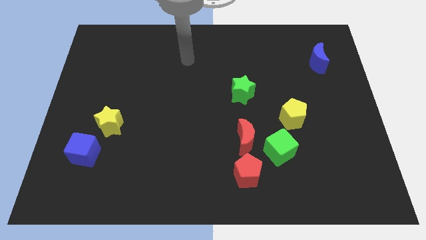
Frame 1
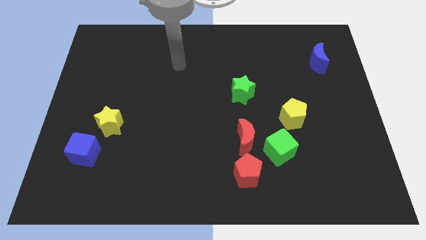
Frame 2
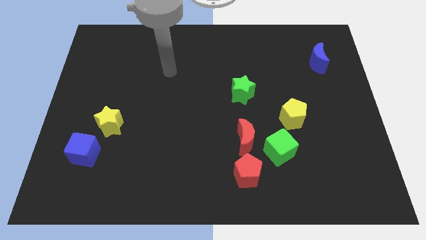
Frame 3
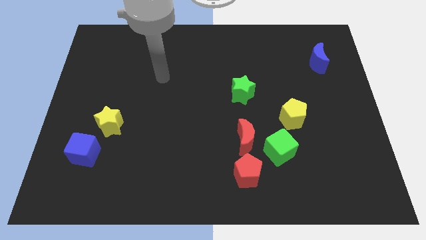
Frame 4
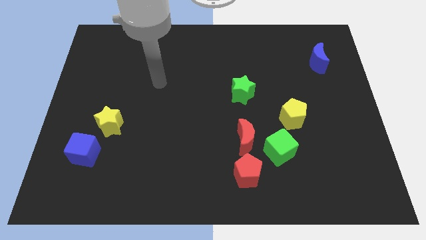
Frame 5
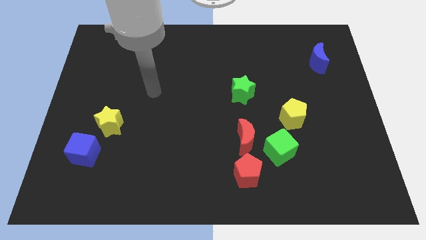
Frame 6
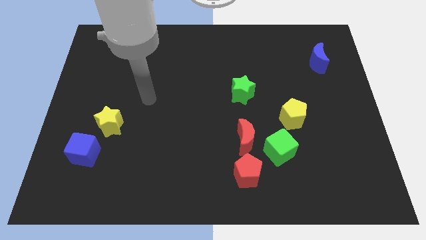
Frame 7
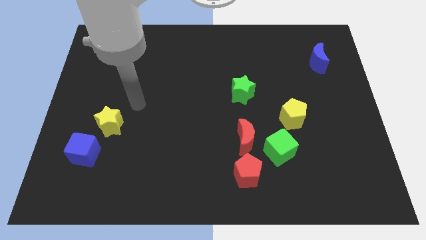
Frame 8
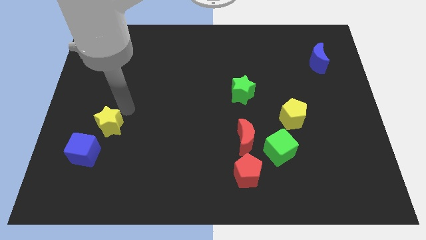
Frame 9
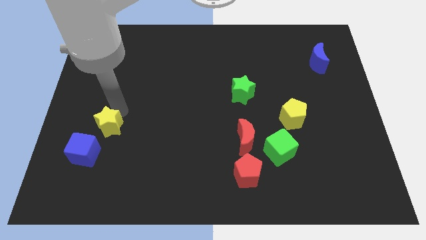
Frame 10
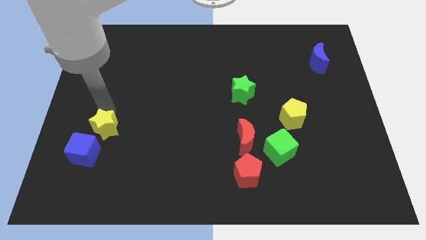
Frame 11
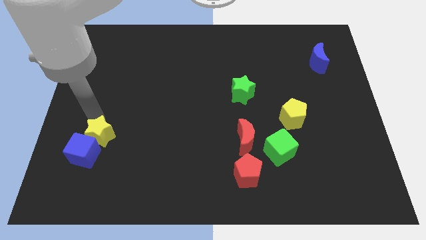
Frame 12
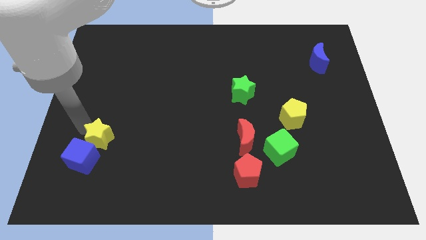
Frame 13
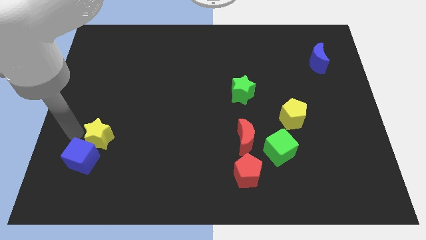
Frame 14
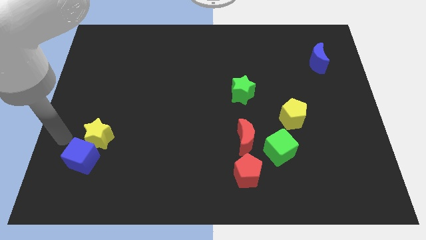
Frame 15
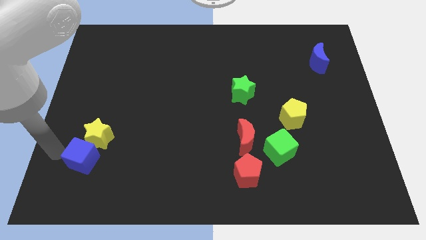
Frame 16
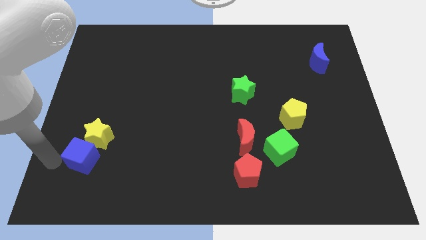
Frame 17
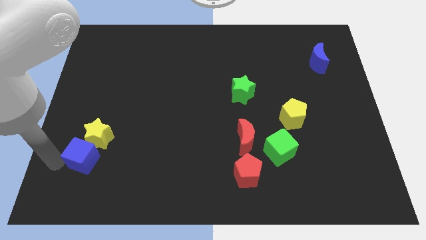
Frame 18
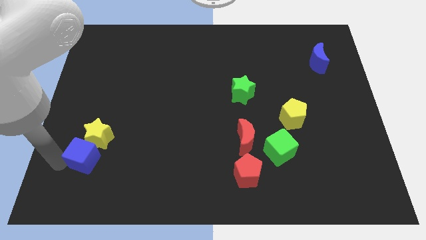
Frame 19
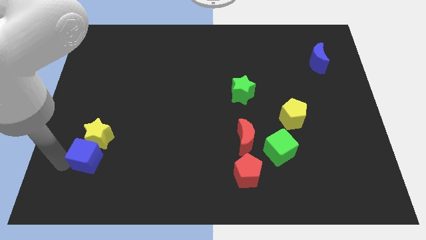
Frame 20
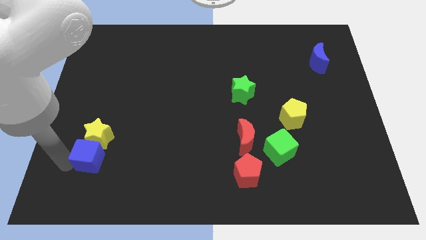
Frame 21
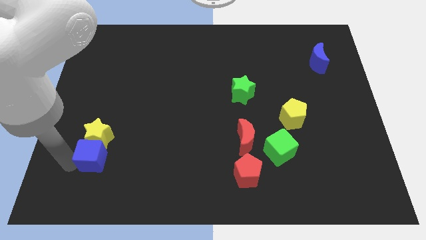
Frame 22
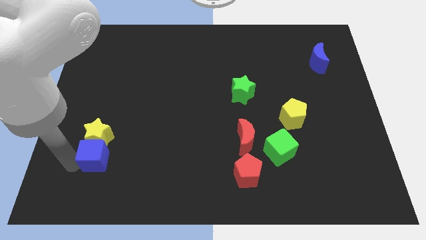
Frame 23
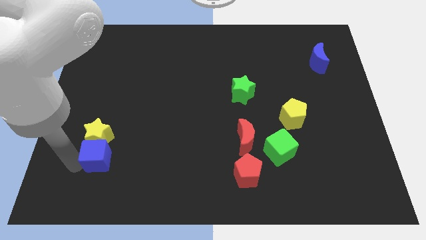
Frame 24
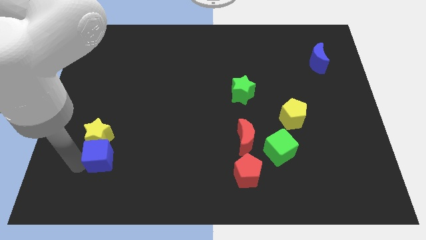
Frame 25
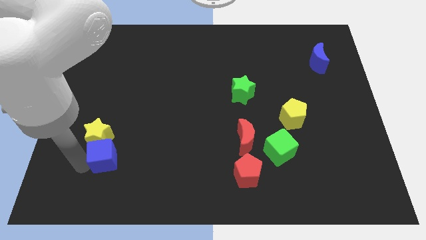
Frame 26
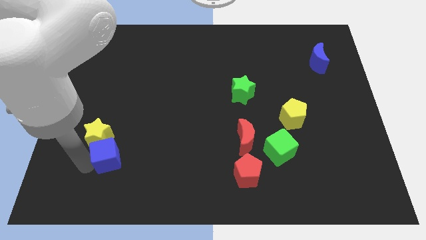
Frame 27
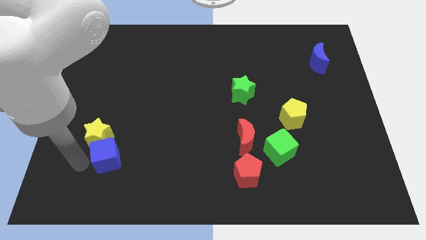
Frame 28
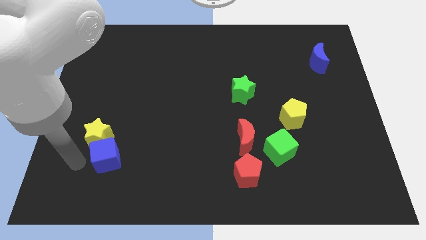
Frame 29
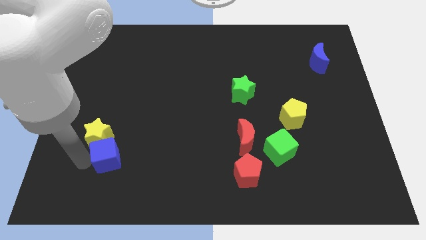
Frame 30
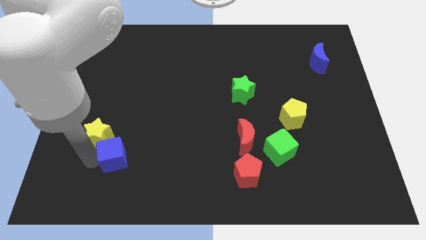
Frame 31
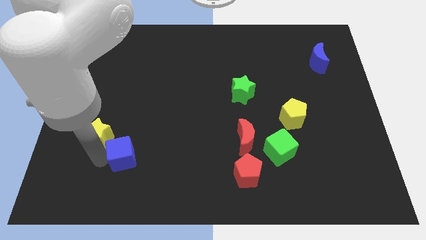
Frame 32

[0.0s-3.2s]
slightly push the blue cube right

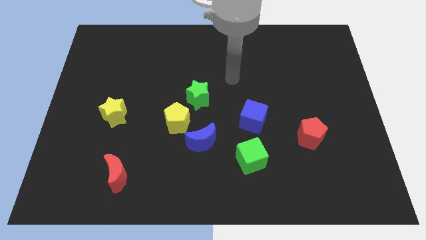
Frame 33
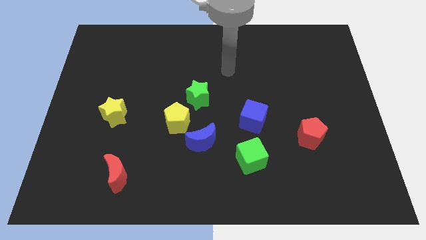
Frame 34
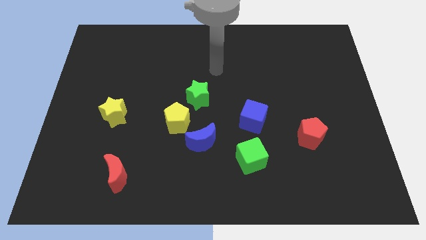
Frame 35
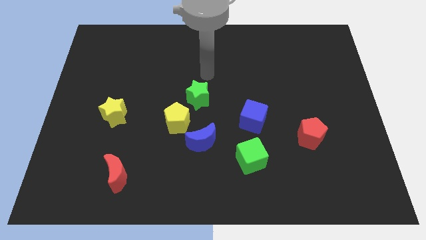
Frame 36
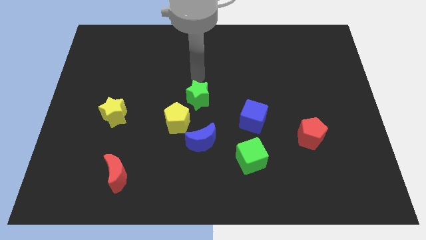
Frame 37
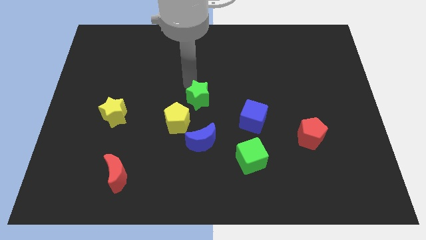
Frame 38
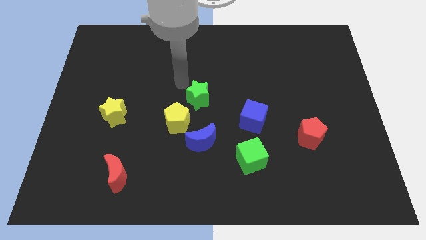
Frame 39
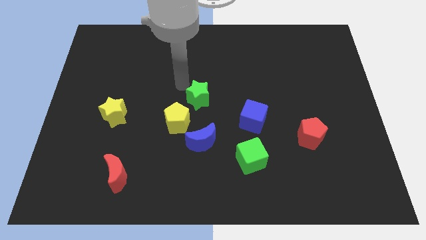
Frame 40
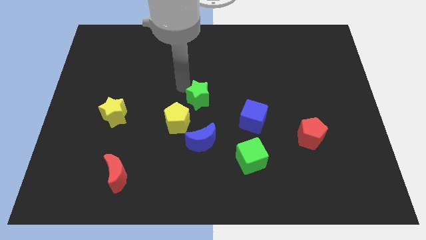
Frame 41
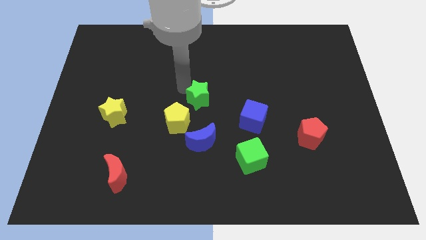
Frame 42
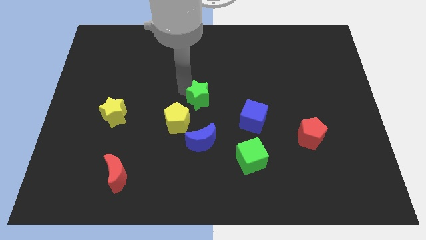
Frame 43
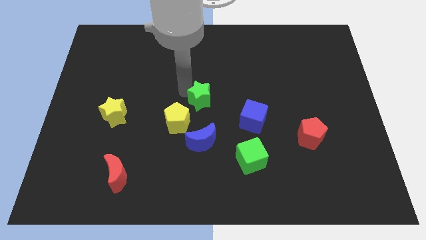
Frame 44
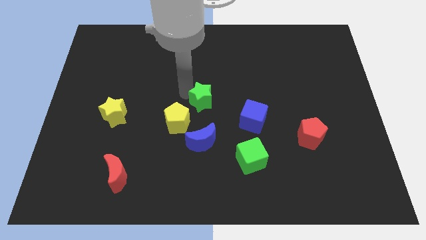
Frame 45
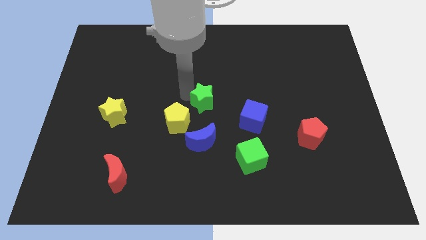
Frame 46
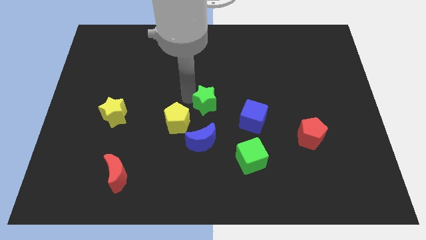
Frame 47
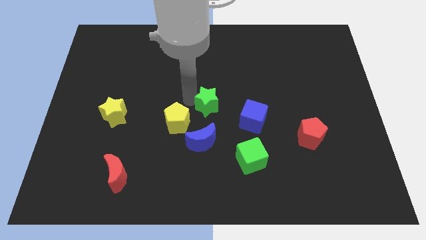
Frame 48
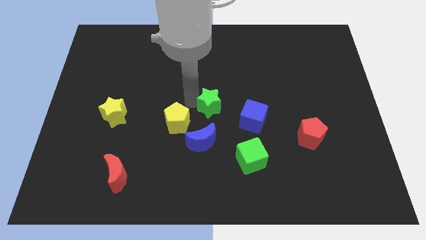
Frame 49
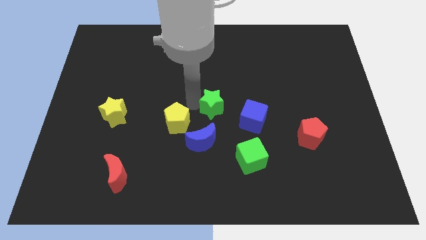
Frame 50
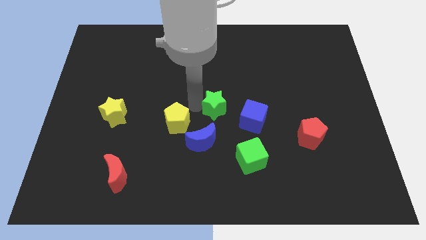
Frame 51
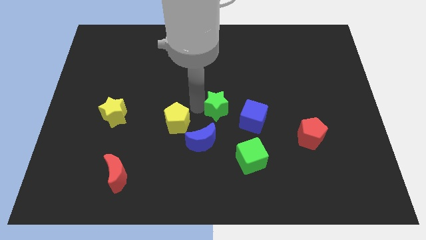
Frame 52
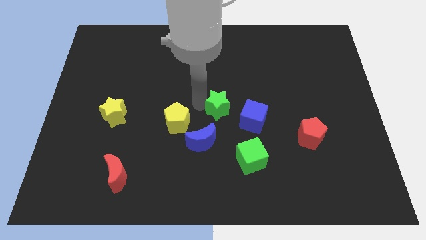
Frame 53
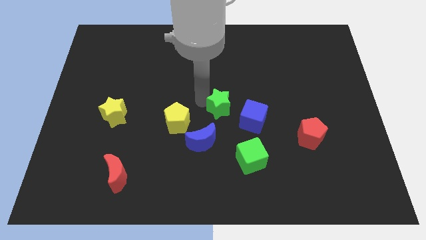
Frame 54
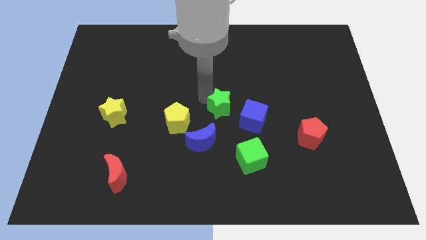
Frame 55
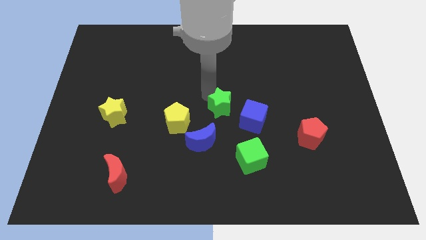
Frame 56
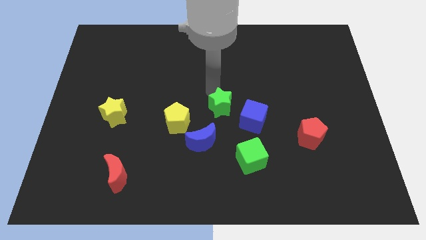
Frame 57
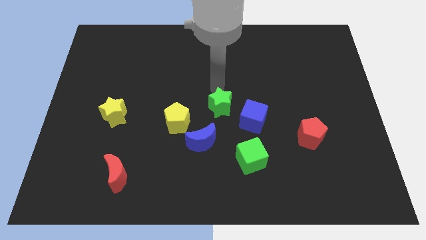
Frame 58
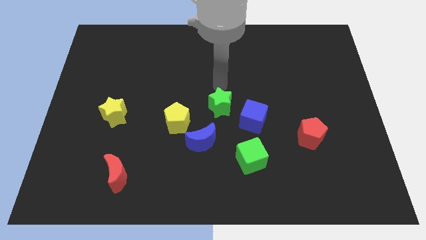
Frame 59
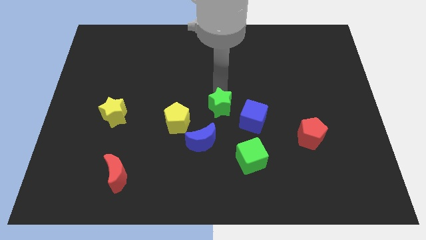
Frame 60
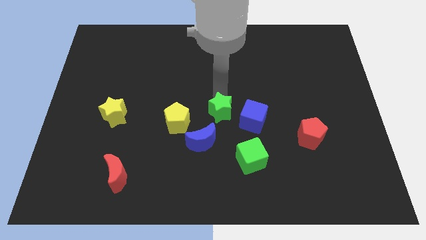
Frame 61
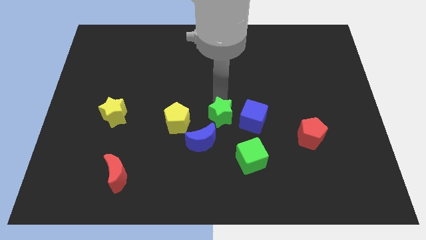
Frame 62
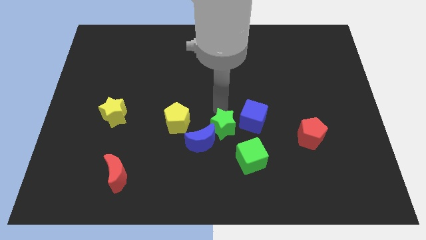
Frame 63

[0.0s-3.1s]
slide the green star down somewhat

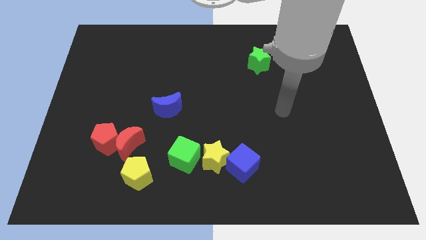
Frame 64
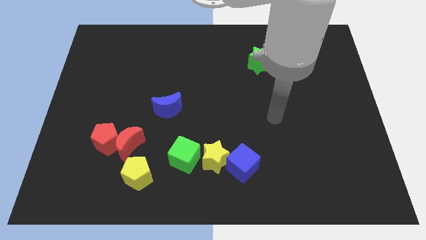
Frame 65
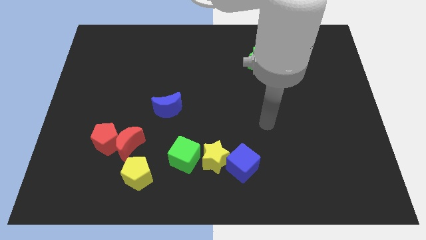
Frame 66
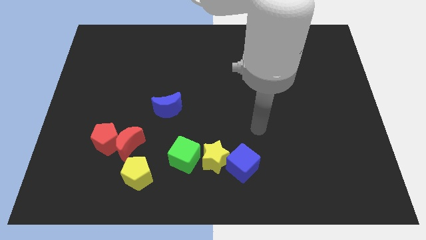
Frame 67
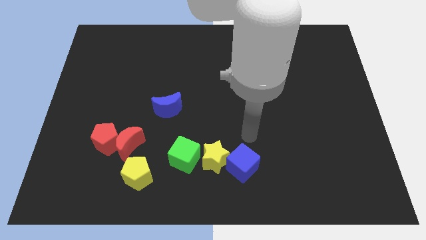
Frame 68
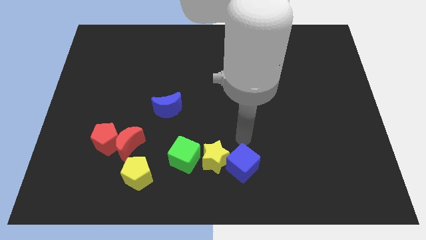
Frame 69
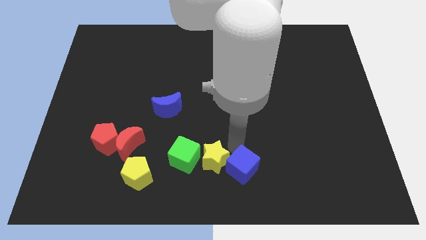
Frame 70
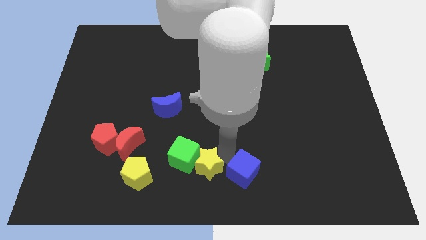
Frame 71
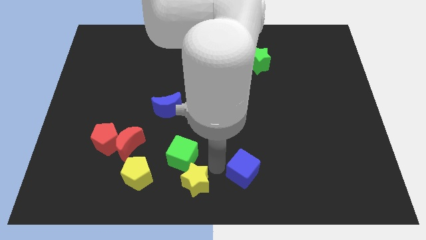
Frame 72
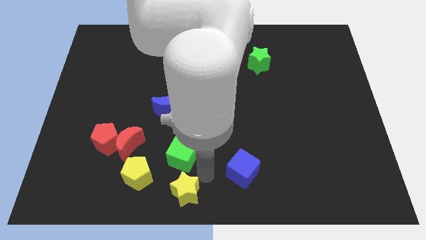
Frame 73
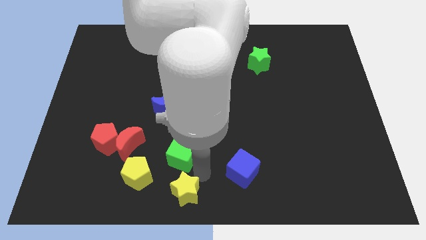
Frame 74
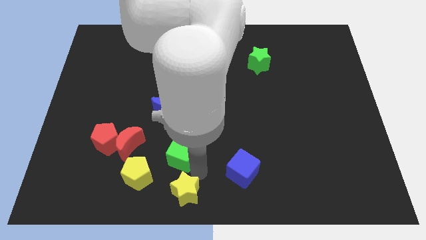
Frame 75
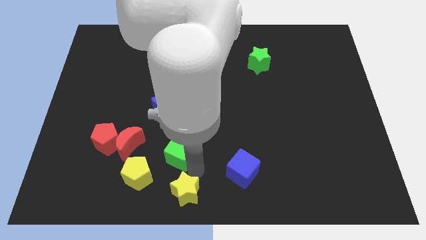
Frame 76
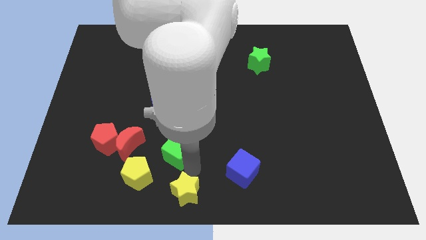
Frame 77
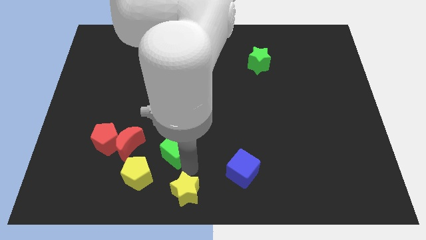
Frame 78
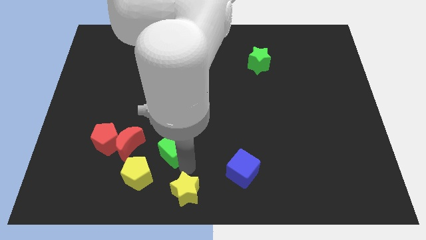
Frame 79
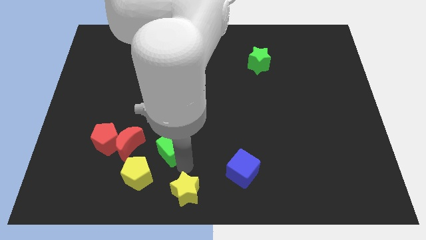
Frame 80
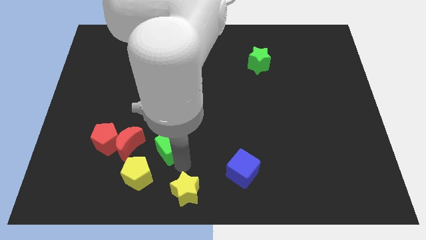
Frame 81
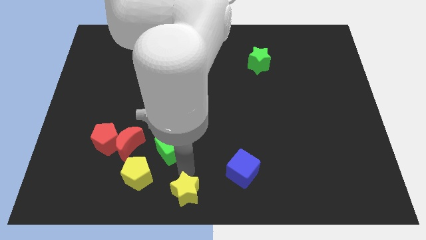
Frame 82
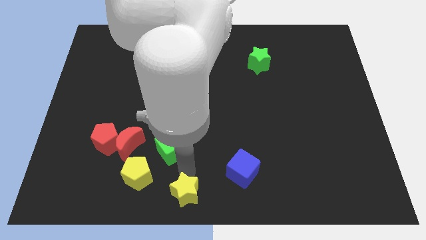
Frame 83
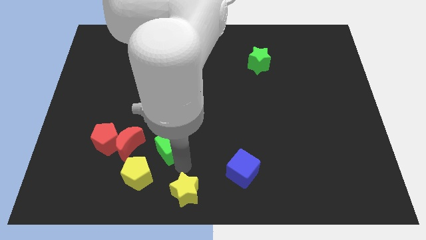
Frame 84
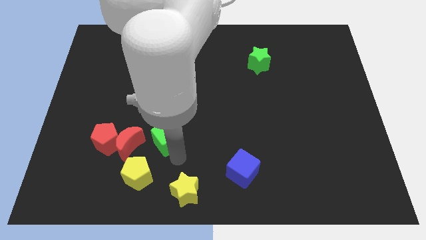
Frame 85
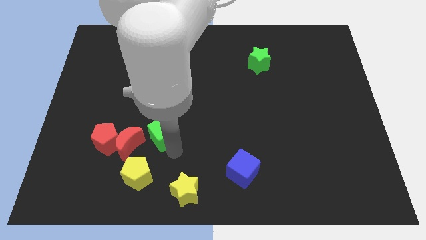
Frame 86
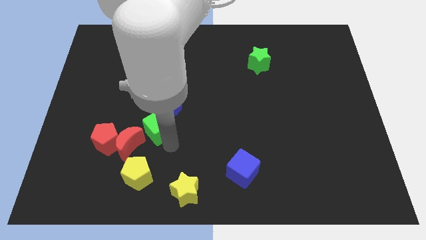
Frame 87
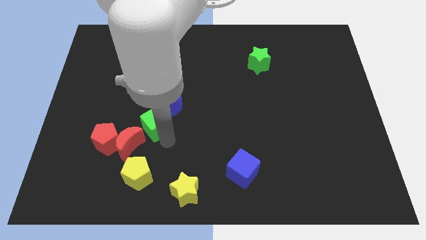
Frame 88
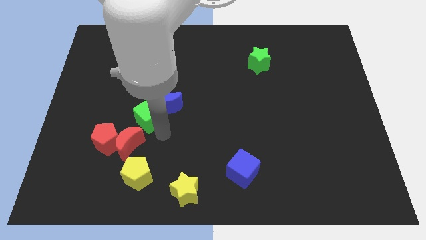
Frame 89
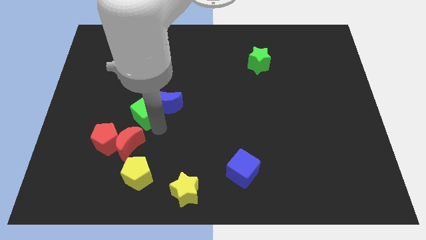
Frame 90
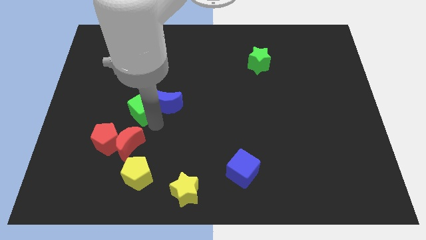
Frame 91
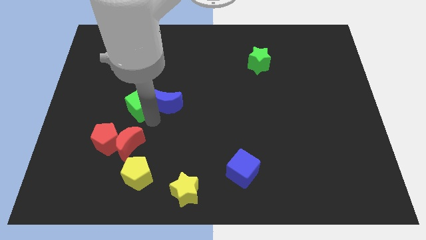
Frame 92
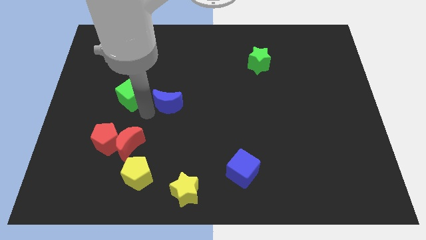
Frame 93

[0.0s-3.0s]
slide the green cube diagonally upwards and to the left
